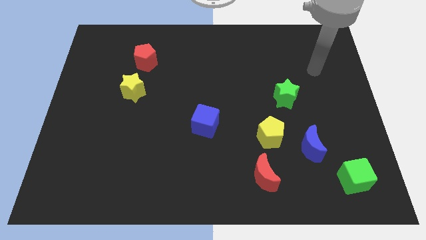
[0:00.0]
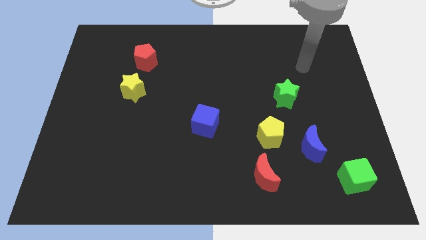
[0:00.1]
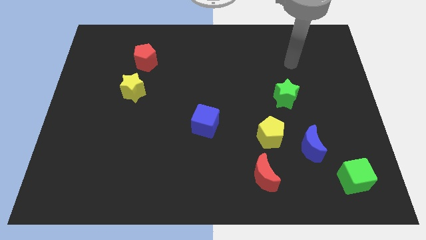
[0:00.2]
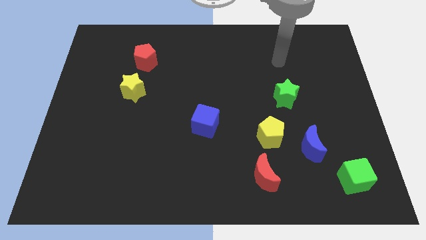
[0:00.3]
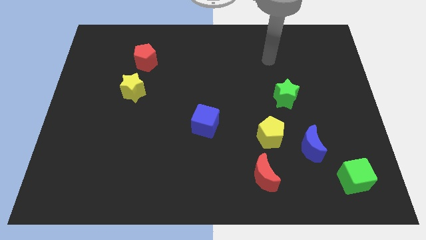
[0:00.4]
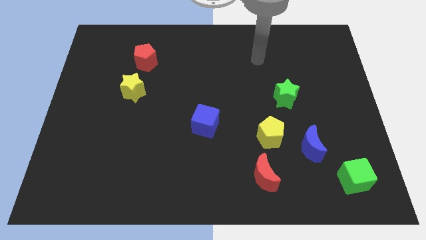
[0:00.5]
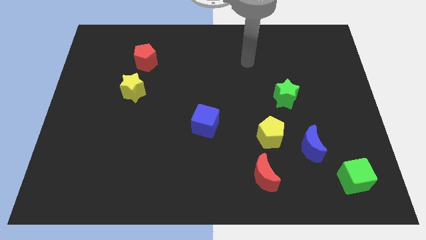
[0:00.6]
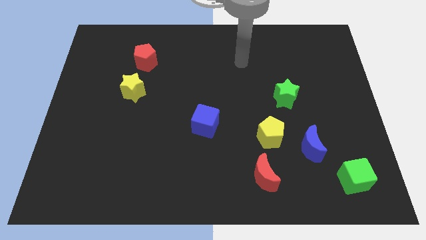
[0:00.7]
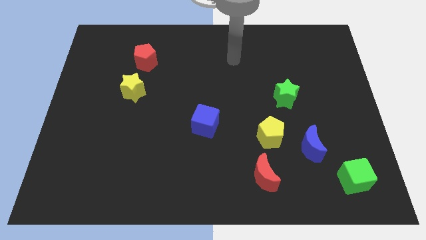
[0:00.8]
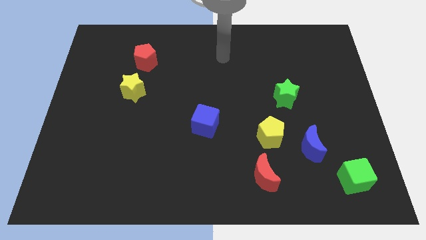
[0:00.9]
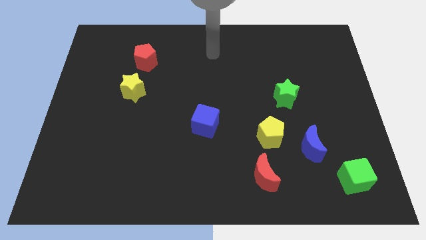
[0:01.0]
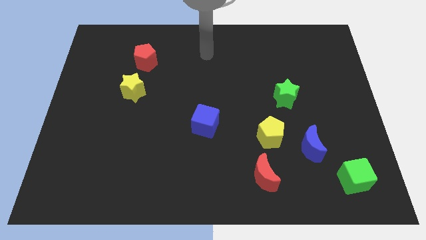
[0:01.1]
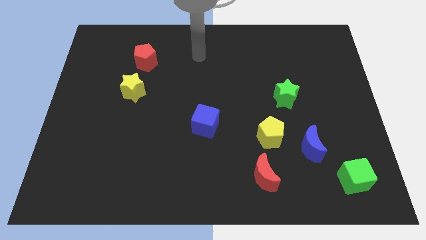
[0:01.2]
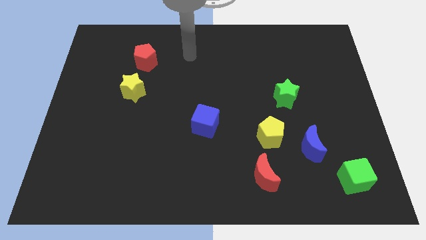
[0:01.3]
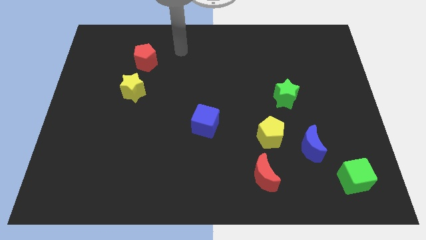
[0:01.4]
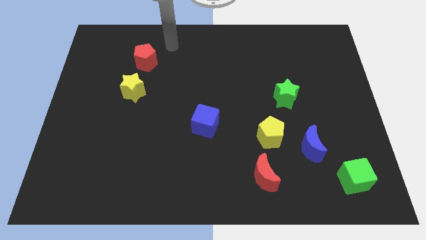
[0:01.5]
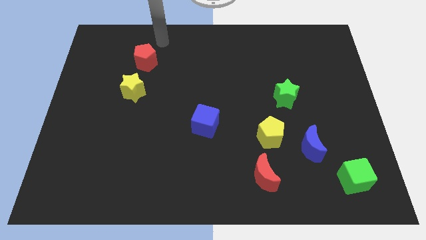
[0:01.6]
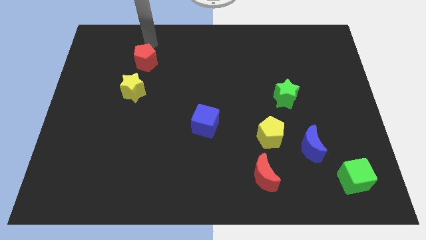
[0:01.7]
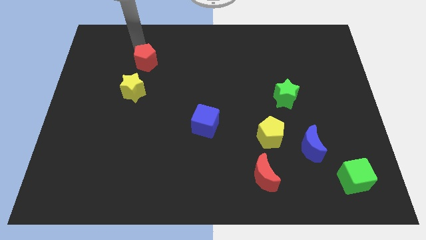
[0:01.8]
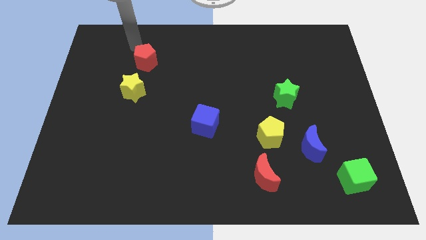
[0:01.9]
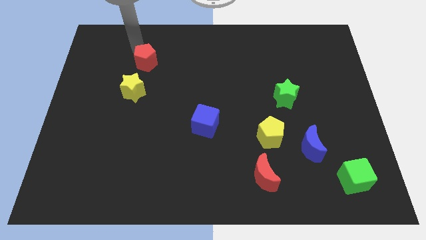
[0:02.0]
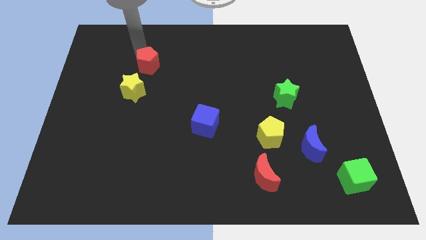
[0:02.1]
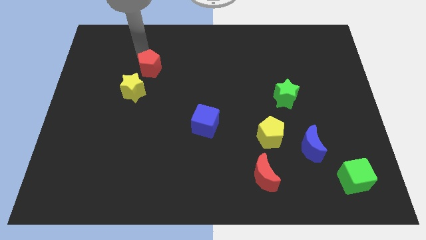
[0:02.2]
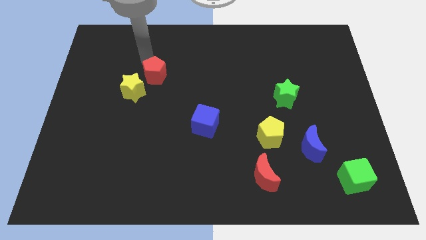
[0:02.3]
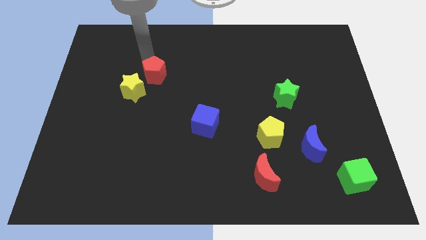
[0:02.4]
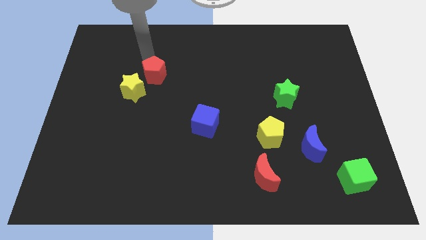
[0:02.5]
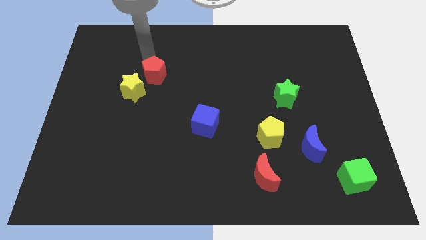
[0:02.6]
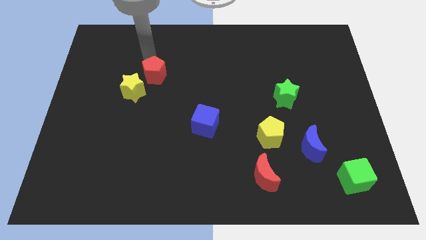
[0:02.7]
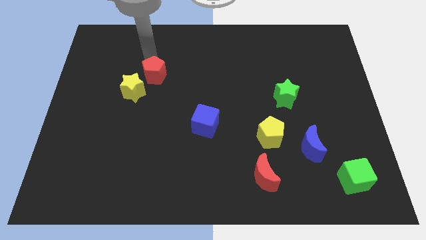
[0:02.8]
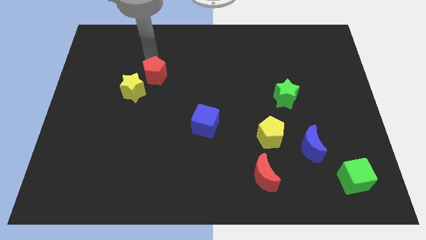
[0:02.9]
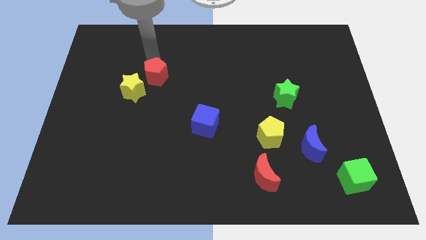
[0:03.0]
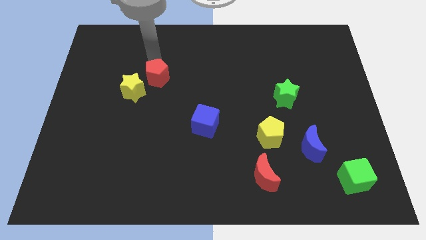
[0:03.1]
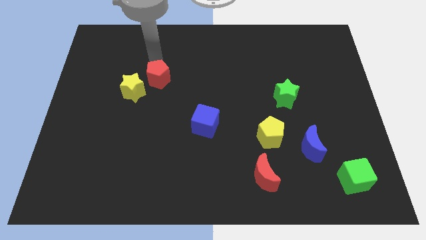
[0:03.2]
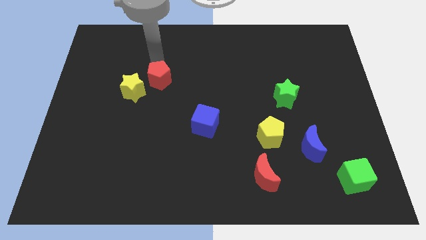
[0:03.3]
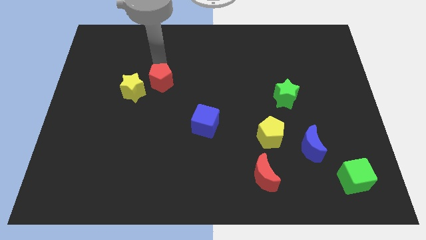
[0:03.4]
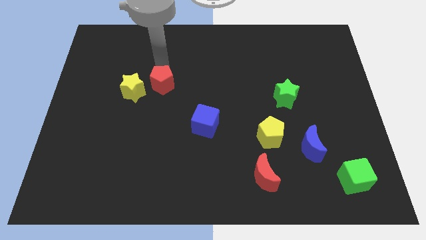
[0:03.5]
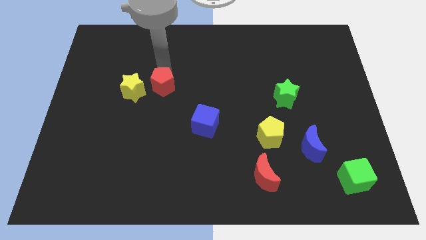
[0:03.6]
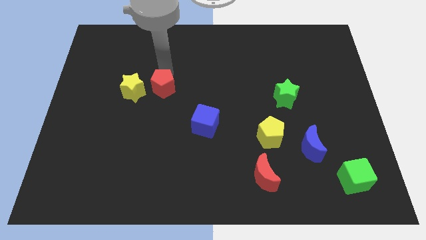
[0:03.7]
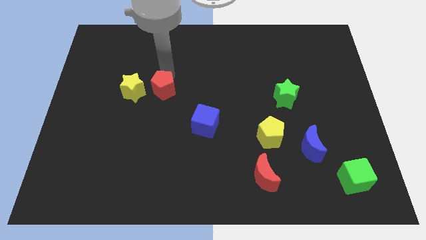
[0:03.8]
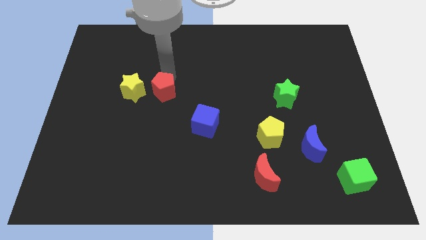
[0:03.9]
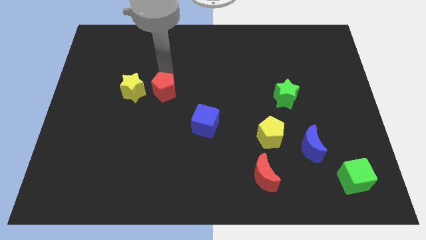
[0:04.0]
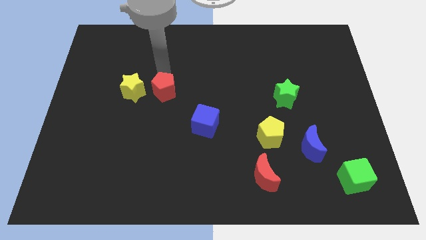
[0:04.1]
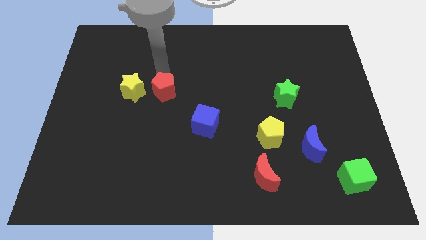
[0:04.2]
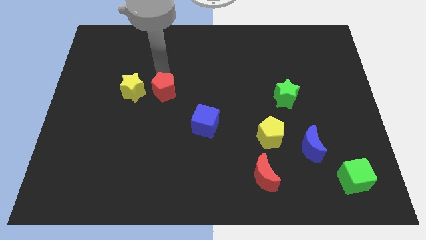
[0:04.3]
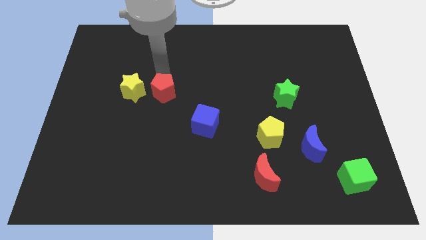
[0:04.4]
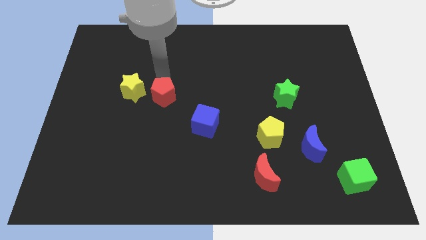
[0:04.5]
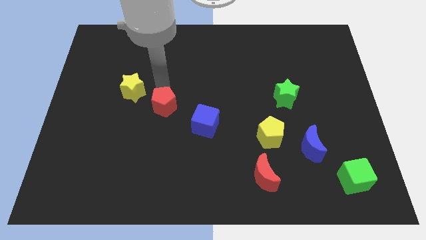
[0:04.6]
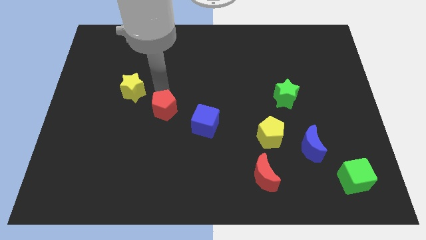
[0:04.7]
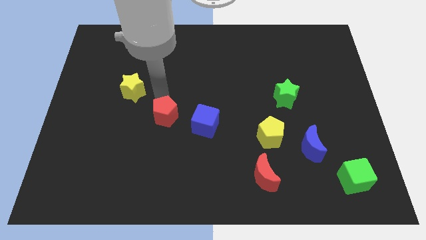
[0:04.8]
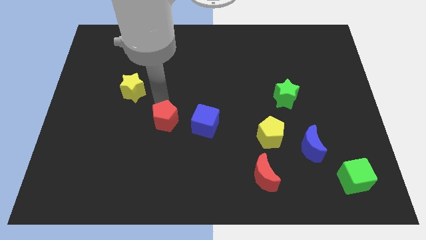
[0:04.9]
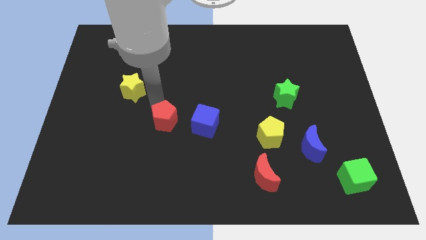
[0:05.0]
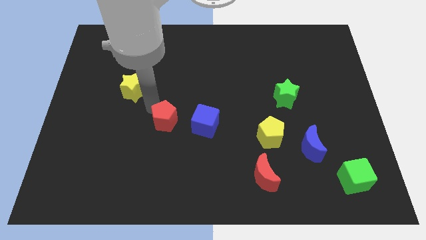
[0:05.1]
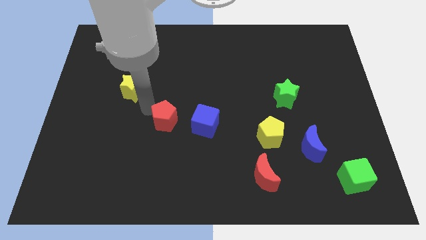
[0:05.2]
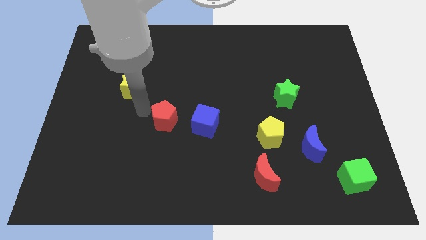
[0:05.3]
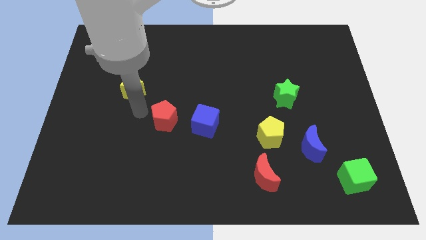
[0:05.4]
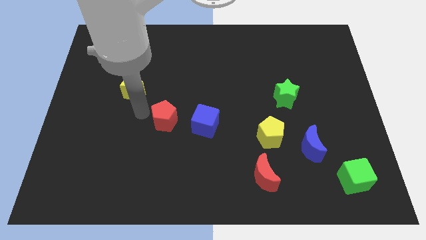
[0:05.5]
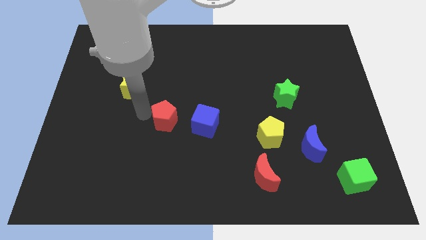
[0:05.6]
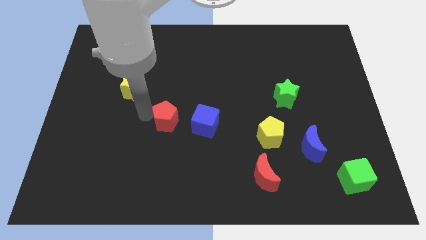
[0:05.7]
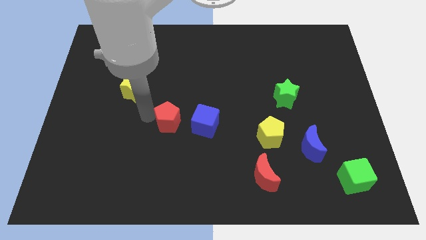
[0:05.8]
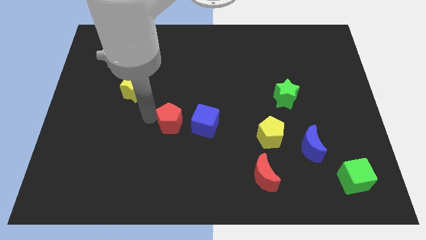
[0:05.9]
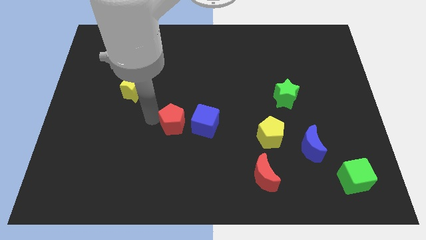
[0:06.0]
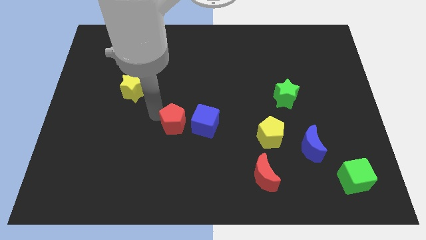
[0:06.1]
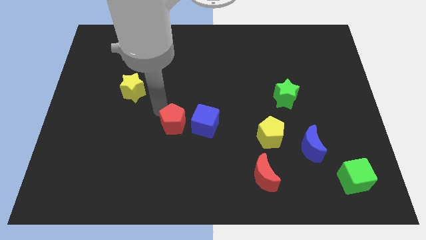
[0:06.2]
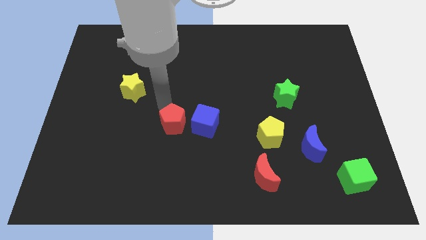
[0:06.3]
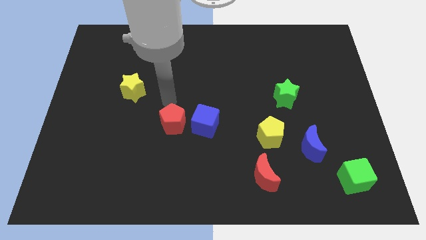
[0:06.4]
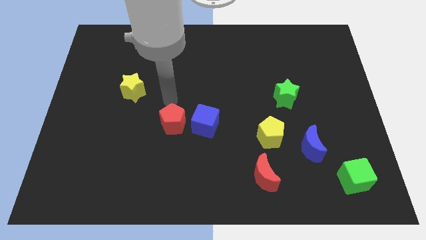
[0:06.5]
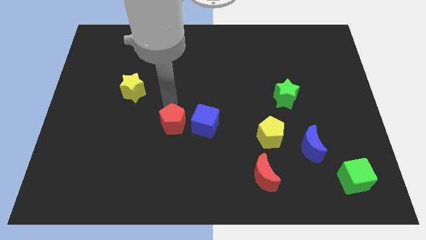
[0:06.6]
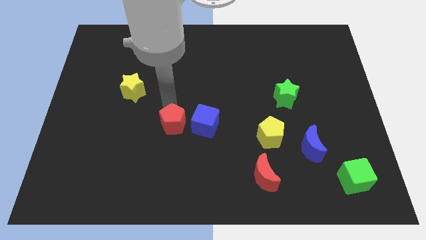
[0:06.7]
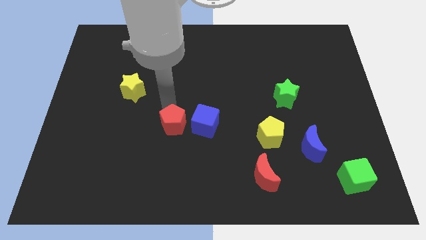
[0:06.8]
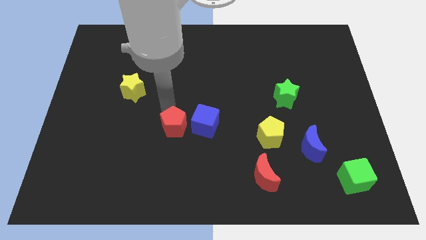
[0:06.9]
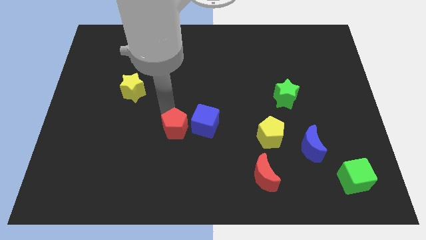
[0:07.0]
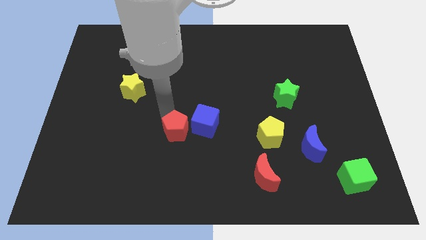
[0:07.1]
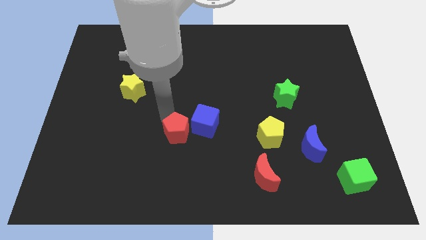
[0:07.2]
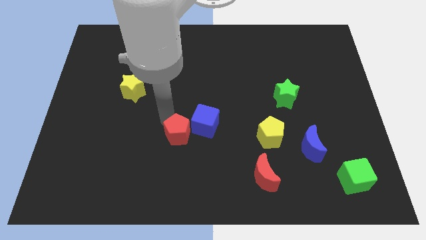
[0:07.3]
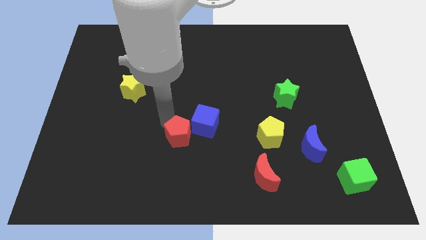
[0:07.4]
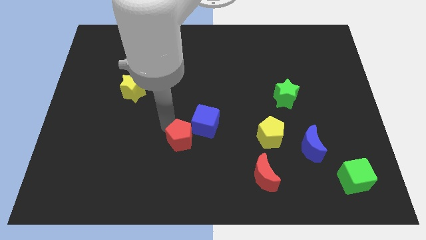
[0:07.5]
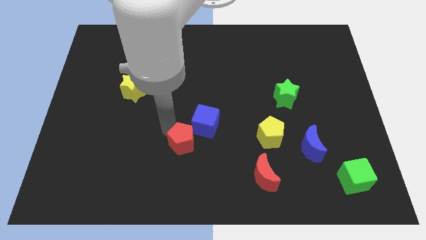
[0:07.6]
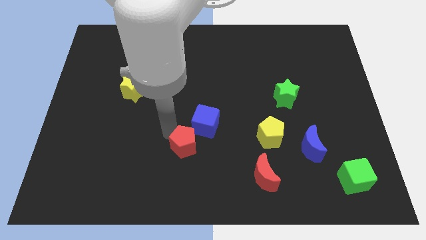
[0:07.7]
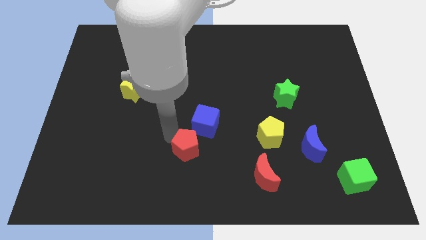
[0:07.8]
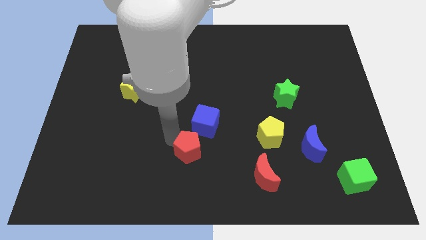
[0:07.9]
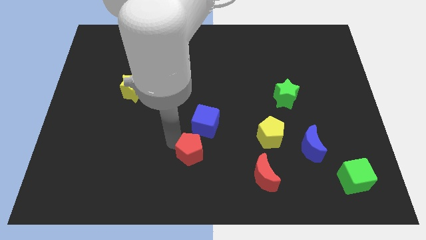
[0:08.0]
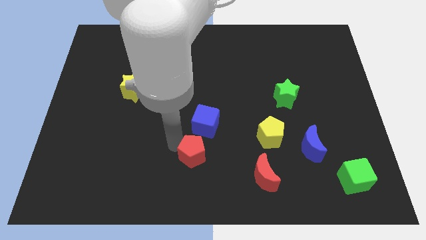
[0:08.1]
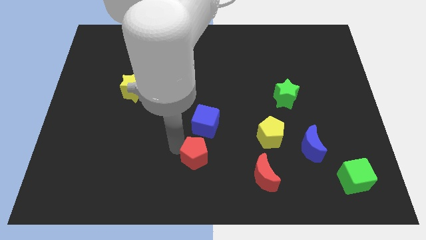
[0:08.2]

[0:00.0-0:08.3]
slide the red pentagon to the bottom
